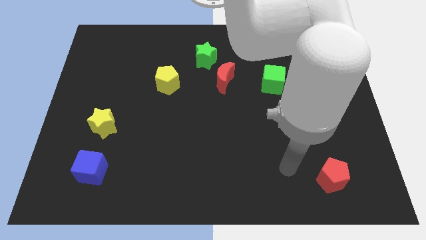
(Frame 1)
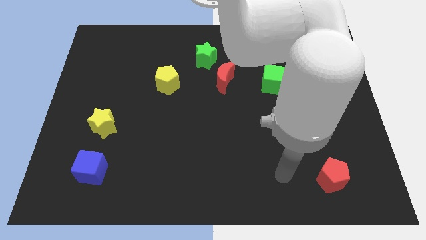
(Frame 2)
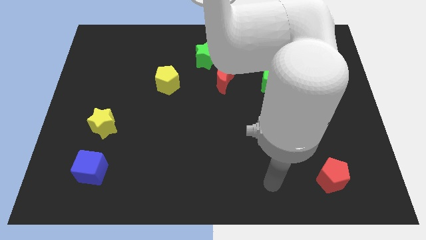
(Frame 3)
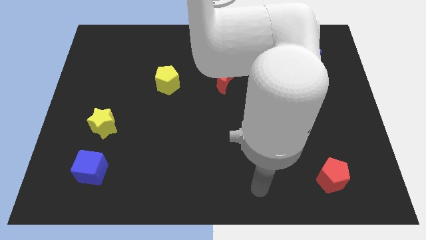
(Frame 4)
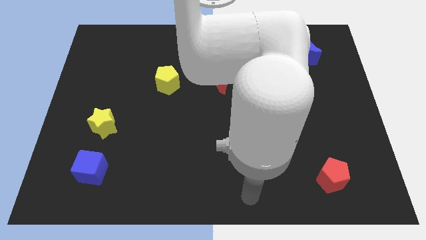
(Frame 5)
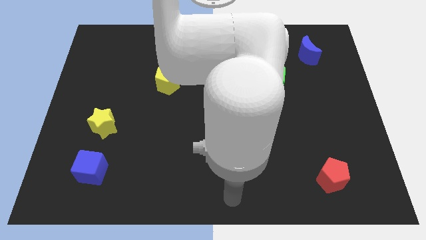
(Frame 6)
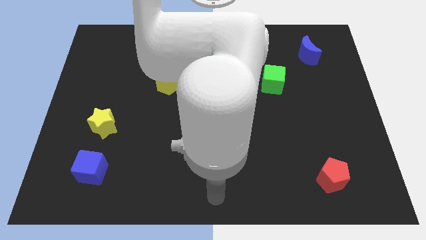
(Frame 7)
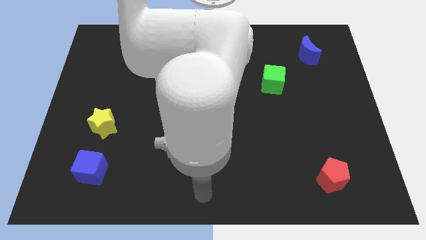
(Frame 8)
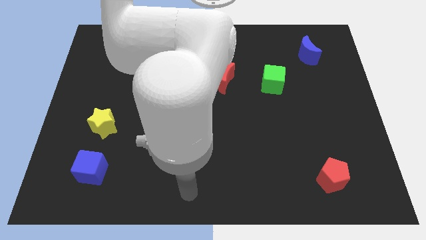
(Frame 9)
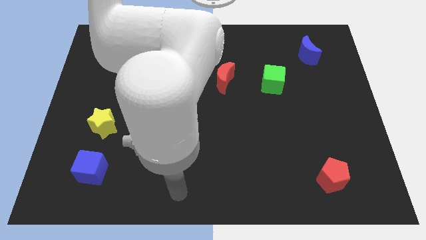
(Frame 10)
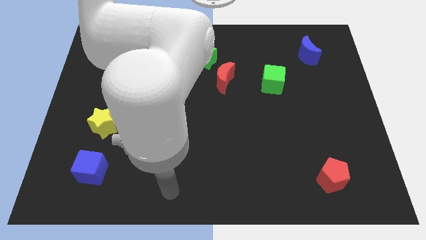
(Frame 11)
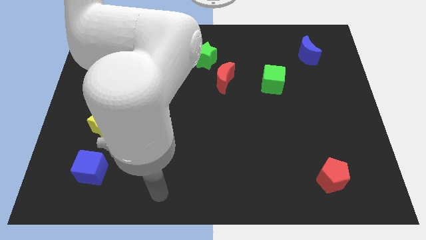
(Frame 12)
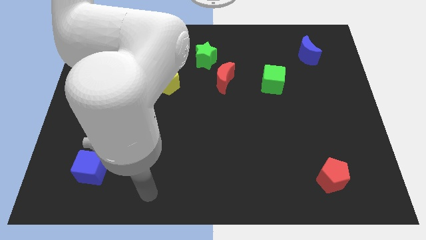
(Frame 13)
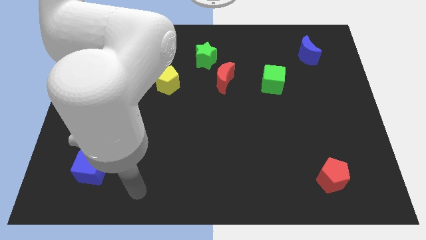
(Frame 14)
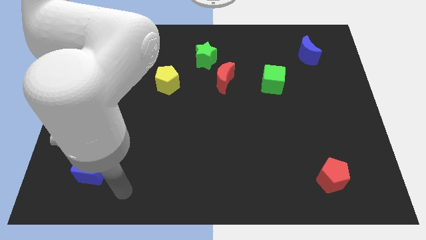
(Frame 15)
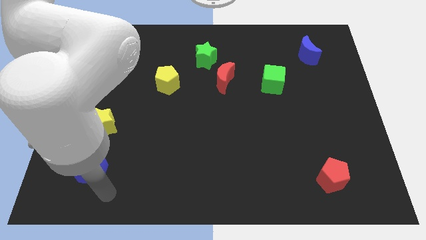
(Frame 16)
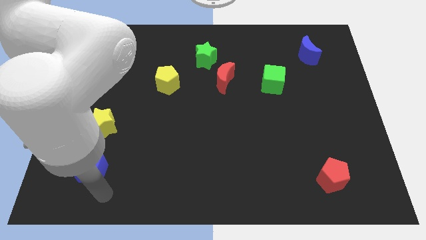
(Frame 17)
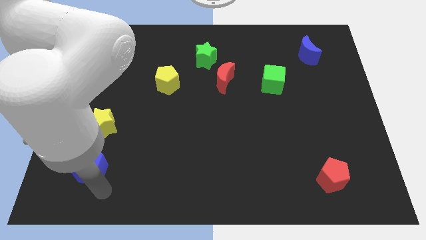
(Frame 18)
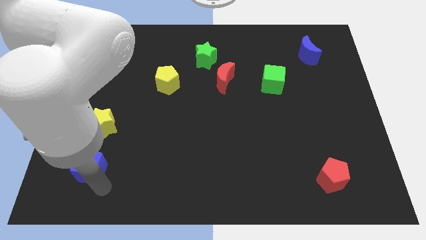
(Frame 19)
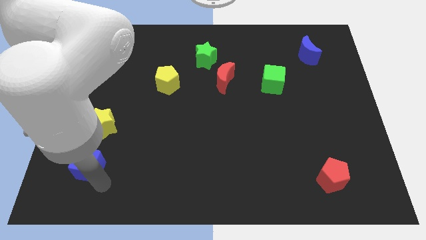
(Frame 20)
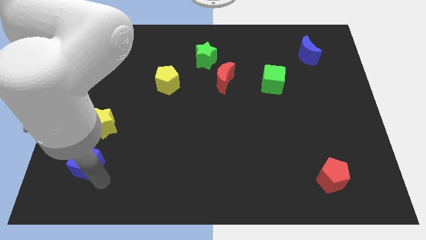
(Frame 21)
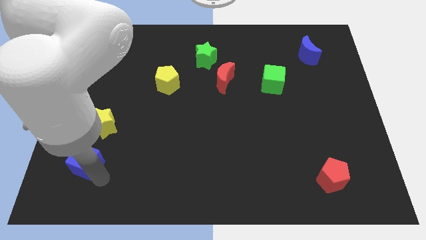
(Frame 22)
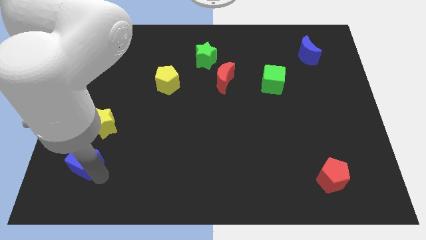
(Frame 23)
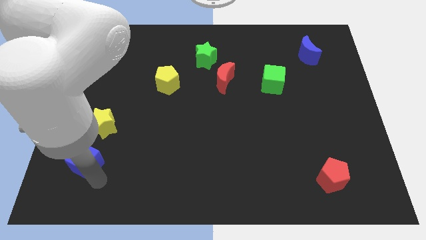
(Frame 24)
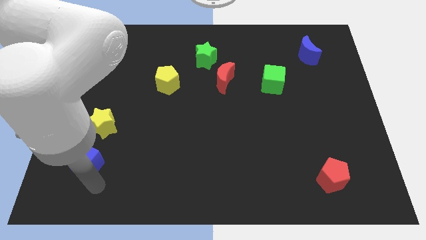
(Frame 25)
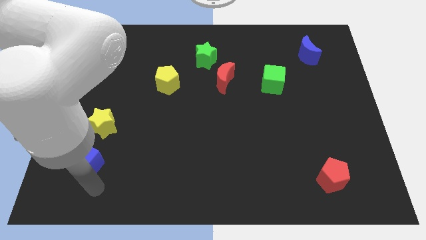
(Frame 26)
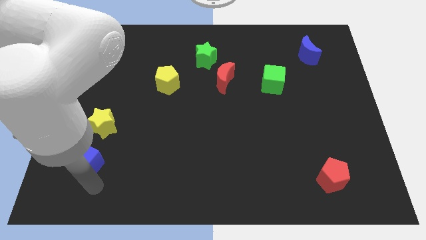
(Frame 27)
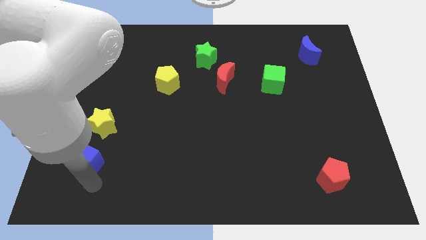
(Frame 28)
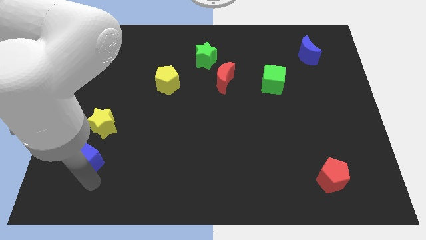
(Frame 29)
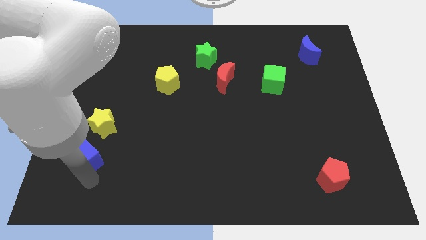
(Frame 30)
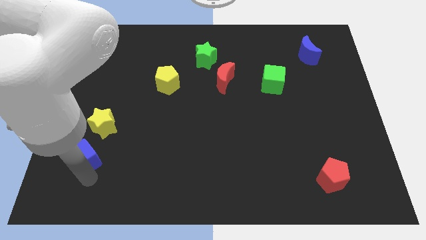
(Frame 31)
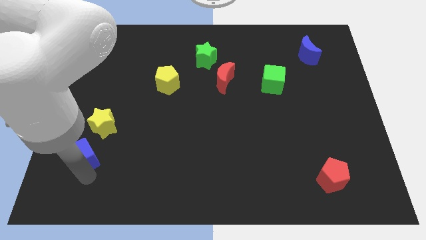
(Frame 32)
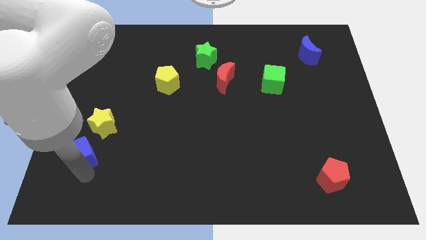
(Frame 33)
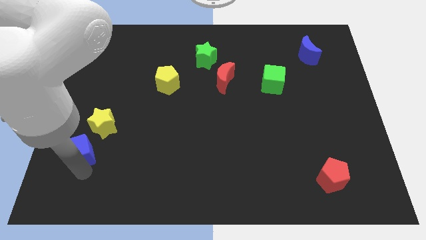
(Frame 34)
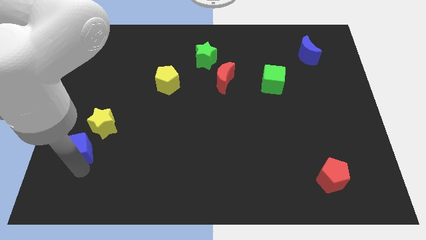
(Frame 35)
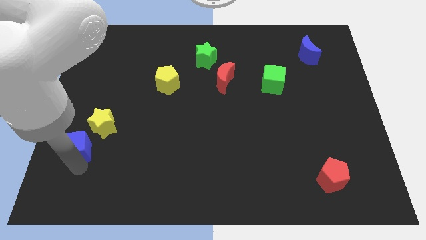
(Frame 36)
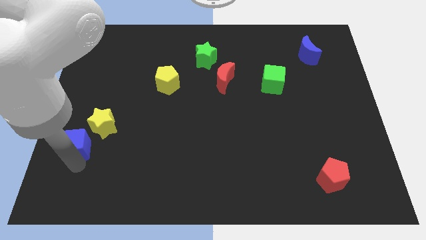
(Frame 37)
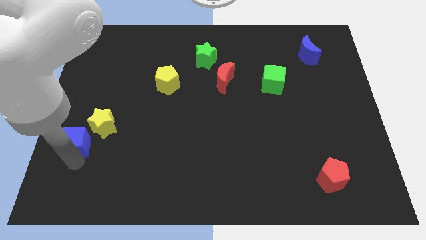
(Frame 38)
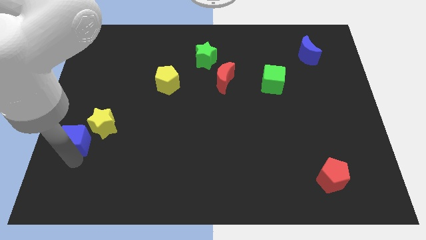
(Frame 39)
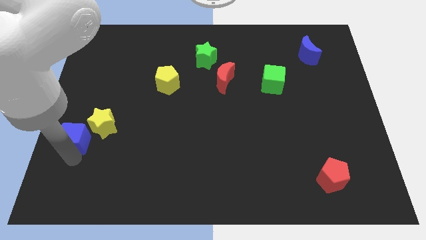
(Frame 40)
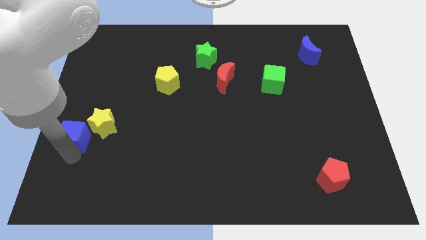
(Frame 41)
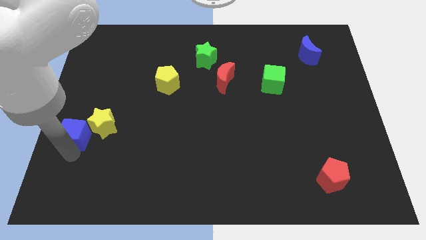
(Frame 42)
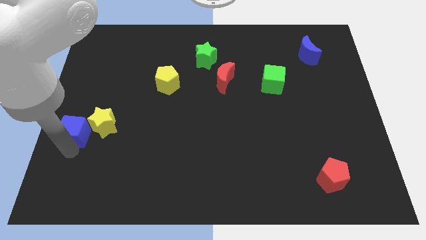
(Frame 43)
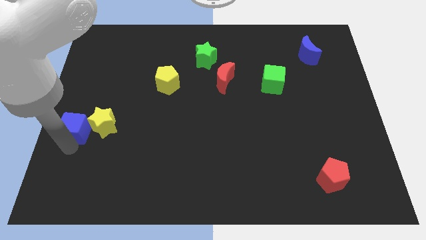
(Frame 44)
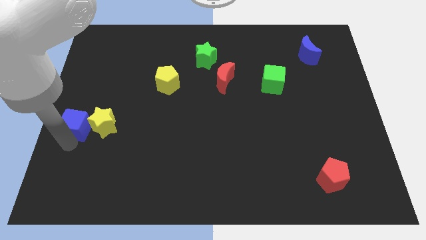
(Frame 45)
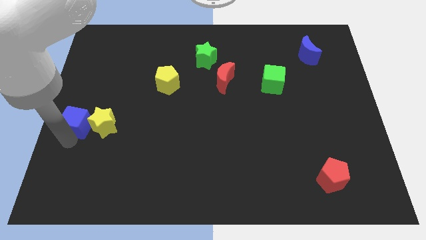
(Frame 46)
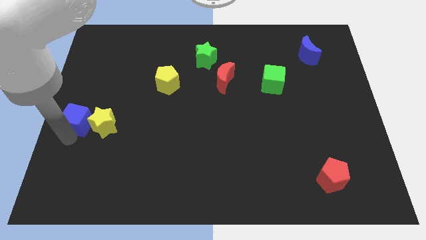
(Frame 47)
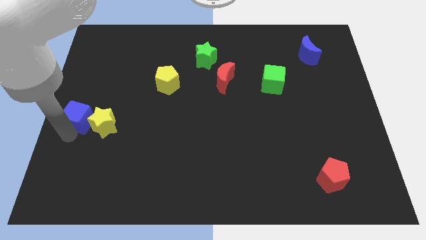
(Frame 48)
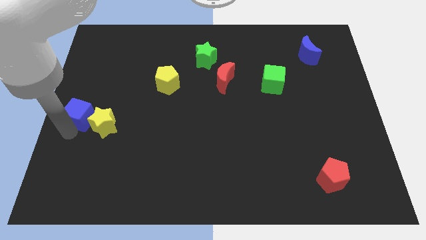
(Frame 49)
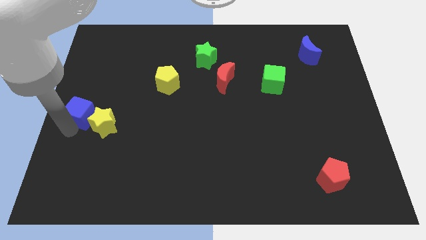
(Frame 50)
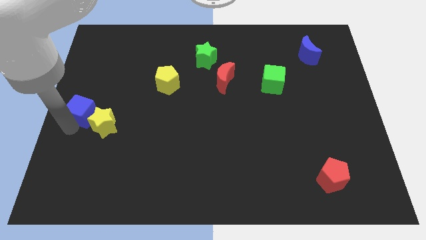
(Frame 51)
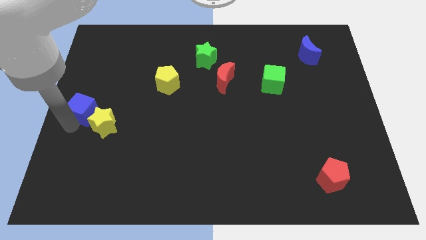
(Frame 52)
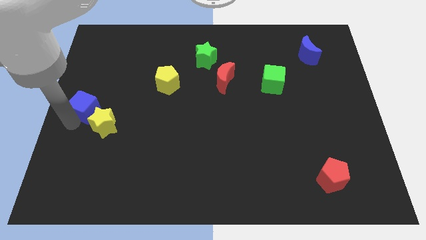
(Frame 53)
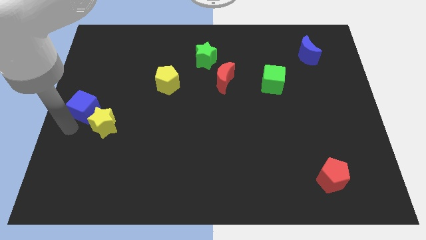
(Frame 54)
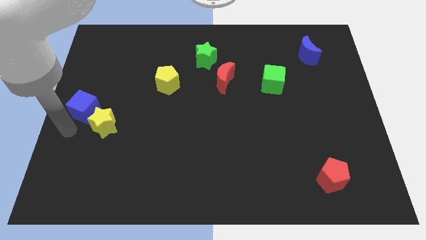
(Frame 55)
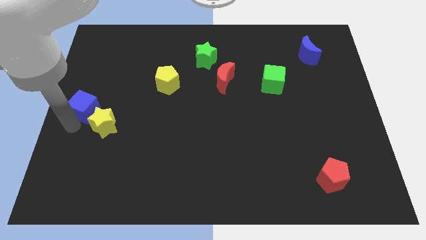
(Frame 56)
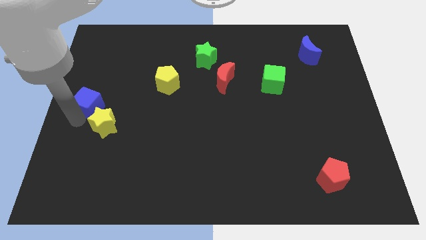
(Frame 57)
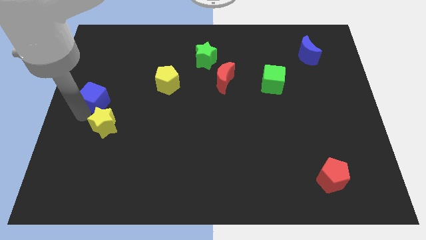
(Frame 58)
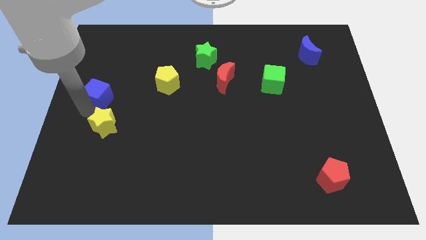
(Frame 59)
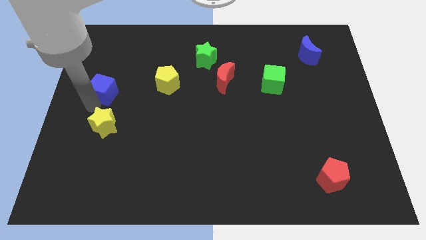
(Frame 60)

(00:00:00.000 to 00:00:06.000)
move the blue cube up

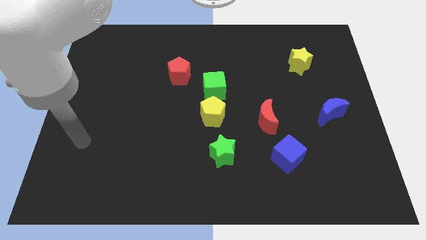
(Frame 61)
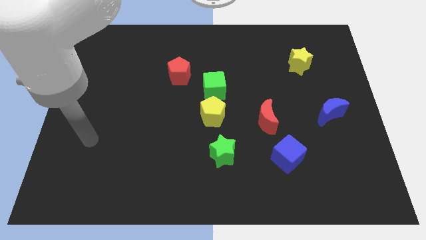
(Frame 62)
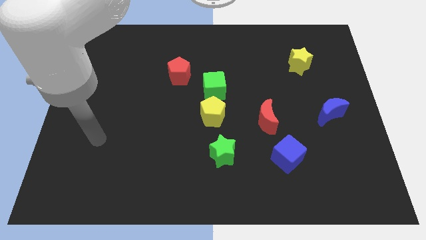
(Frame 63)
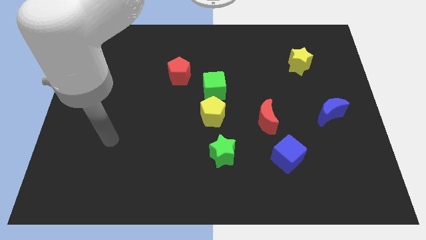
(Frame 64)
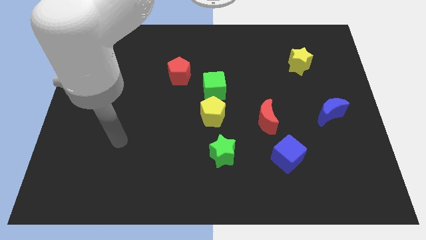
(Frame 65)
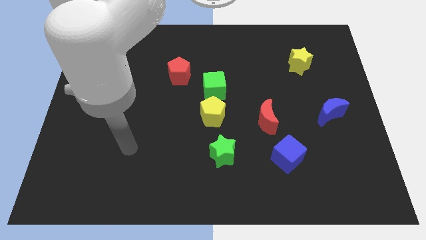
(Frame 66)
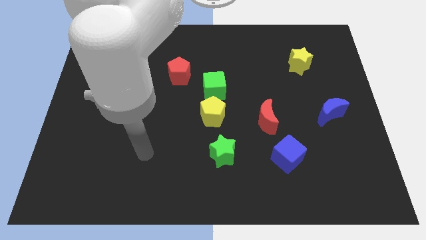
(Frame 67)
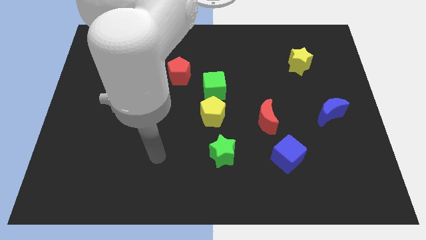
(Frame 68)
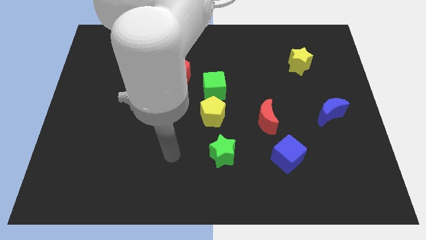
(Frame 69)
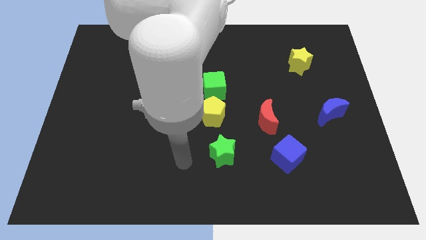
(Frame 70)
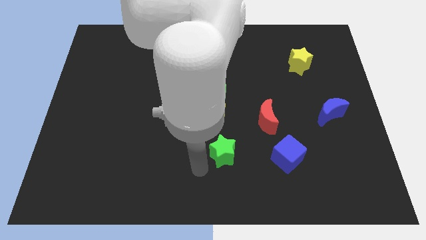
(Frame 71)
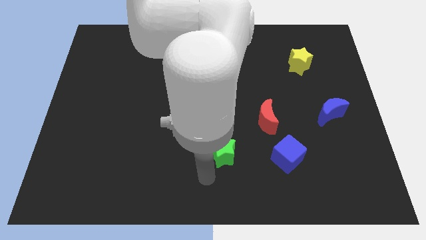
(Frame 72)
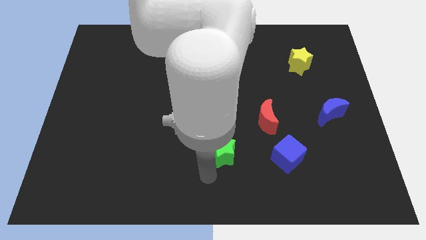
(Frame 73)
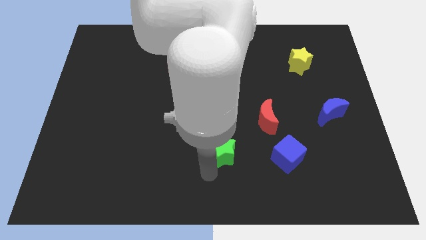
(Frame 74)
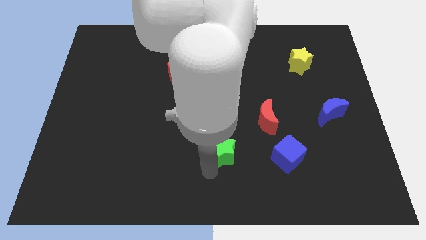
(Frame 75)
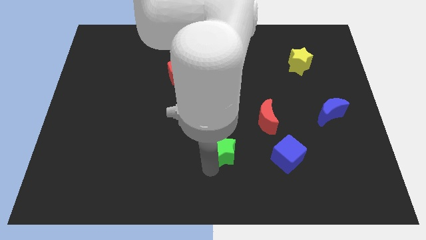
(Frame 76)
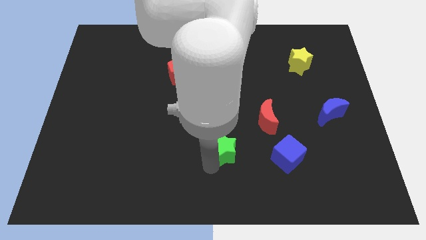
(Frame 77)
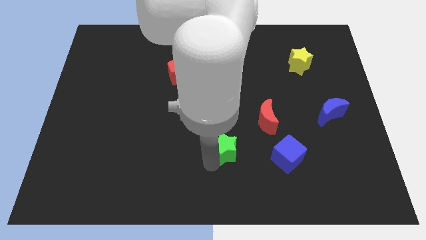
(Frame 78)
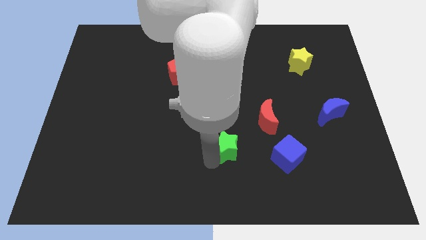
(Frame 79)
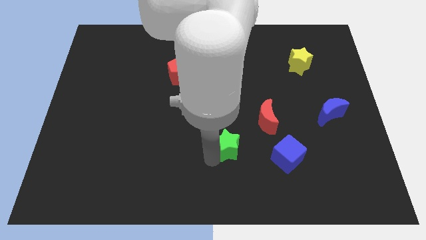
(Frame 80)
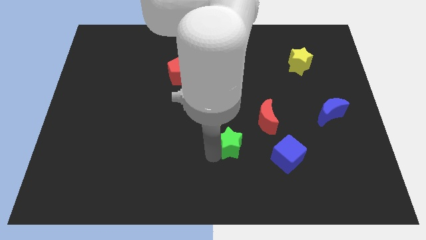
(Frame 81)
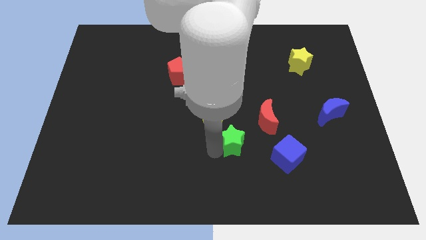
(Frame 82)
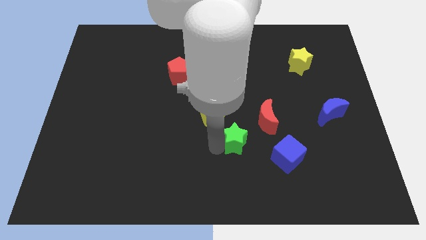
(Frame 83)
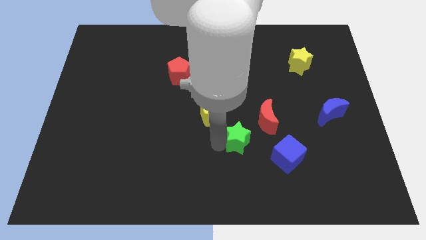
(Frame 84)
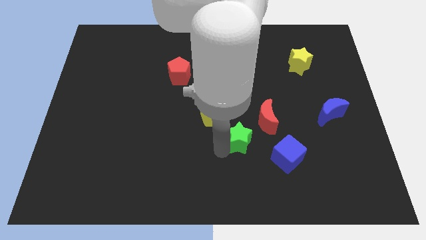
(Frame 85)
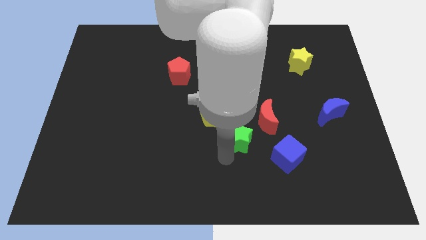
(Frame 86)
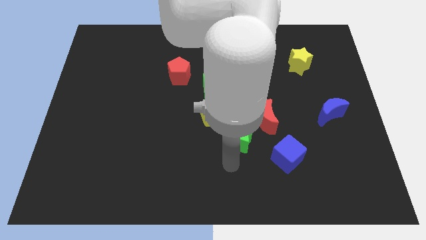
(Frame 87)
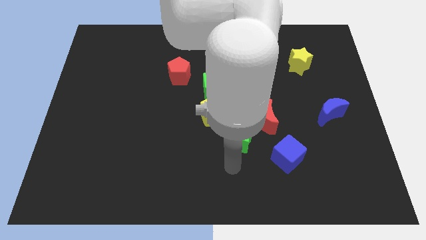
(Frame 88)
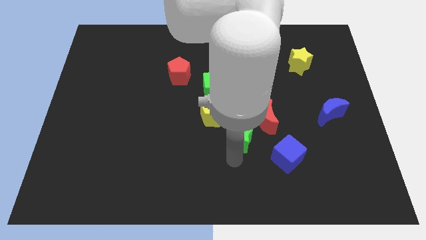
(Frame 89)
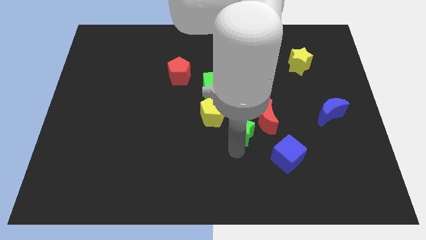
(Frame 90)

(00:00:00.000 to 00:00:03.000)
push the green star a little bit upwards and right diagonally
